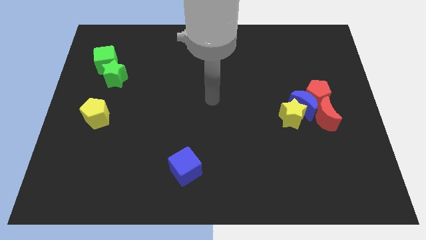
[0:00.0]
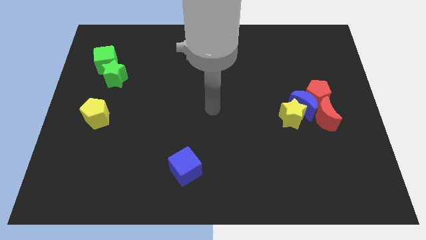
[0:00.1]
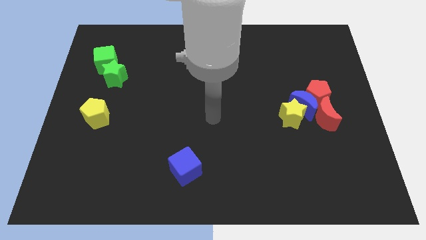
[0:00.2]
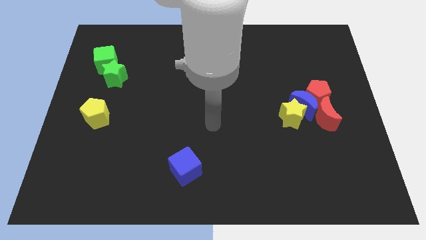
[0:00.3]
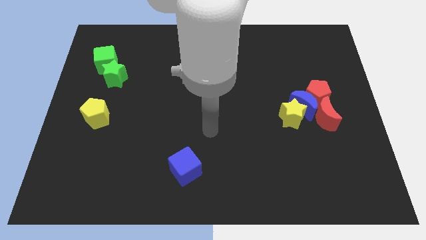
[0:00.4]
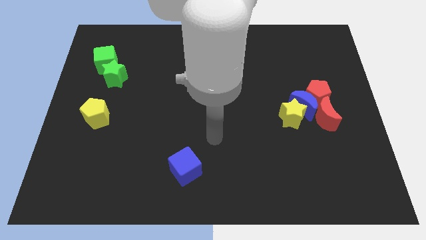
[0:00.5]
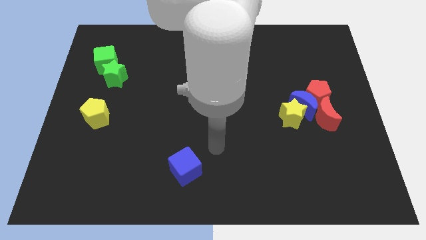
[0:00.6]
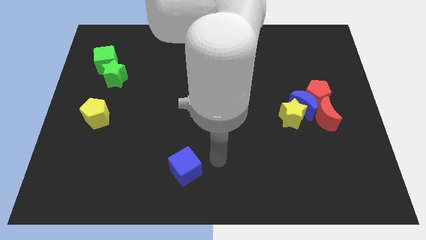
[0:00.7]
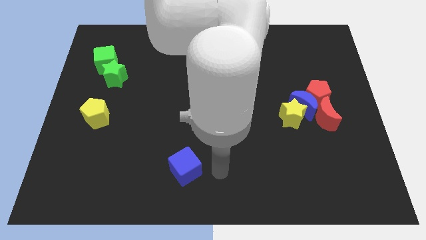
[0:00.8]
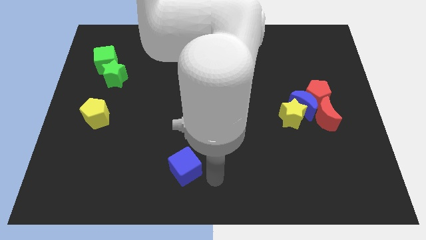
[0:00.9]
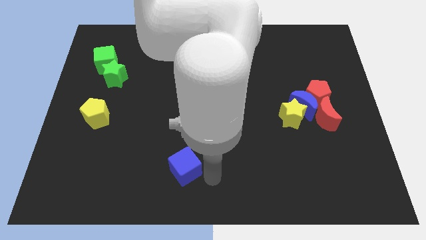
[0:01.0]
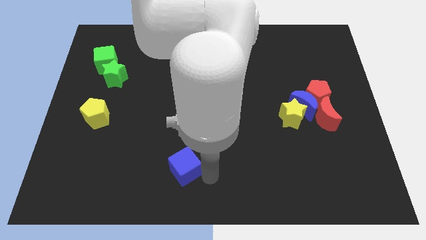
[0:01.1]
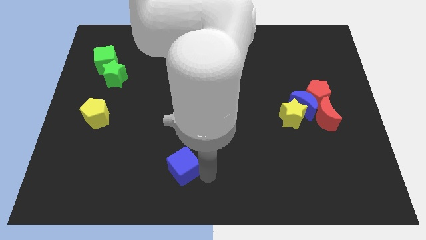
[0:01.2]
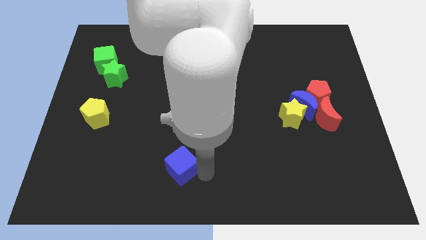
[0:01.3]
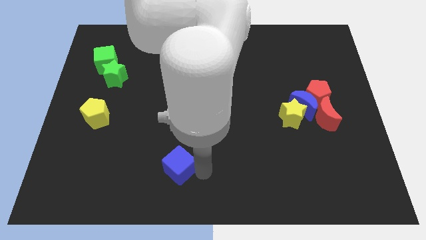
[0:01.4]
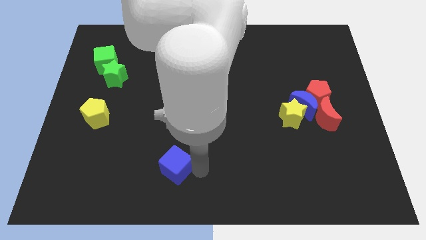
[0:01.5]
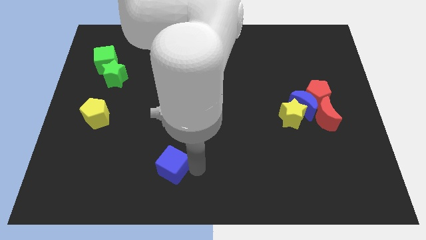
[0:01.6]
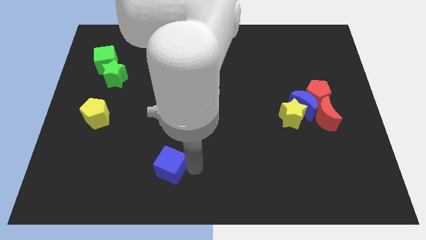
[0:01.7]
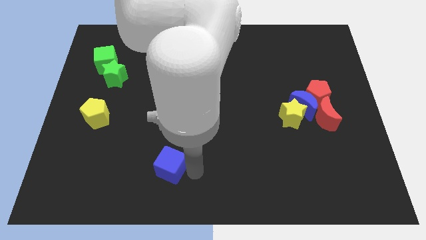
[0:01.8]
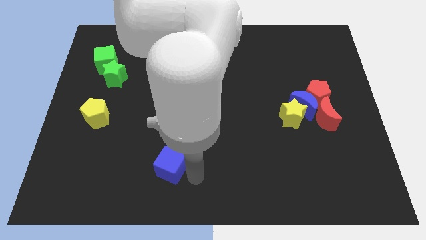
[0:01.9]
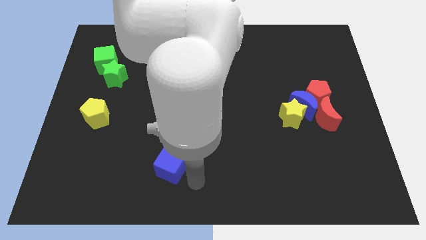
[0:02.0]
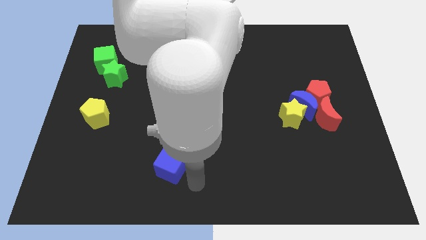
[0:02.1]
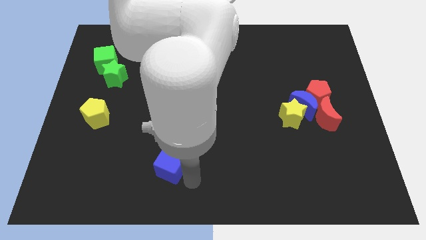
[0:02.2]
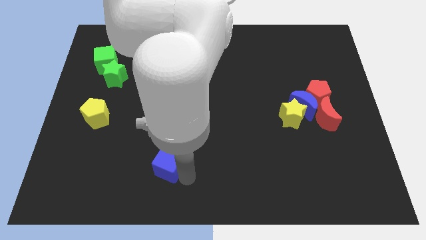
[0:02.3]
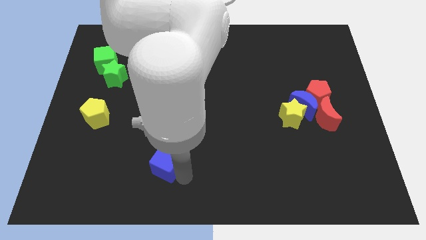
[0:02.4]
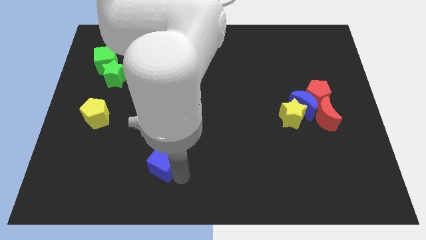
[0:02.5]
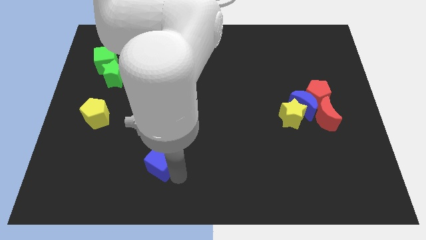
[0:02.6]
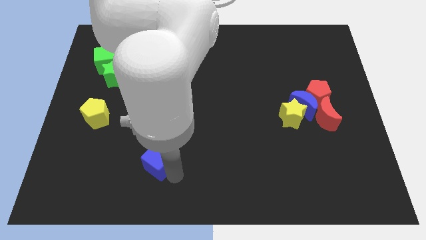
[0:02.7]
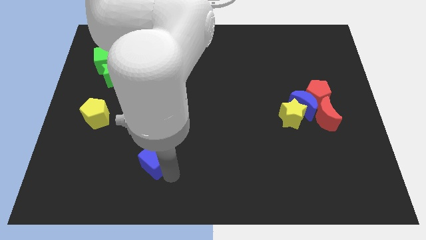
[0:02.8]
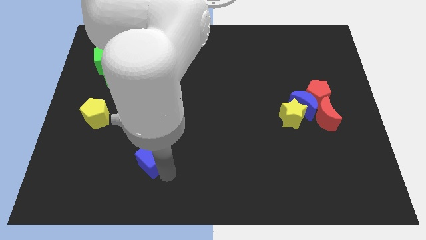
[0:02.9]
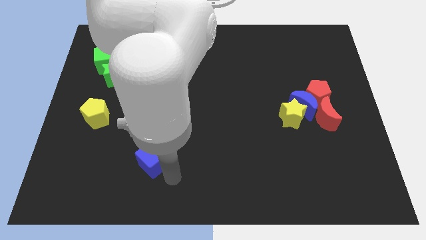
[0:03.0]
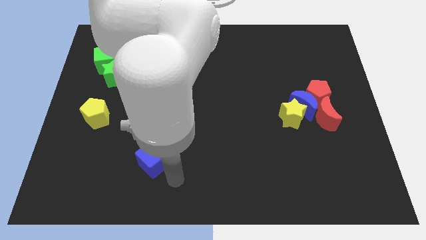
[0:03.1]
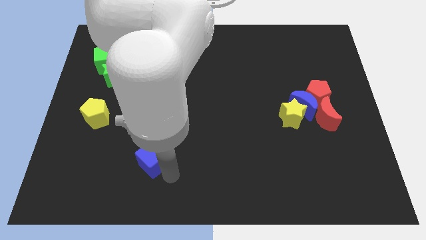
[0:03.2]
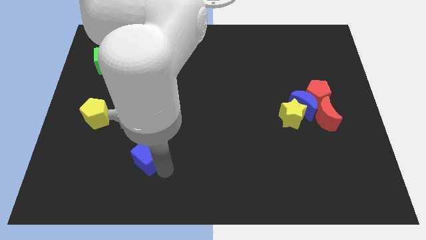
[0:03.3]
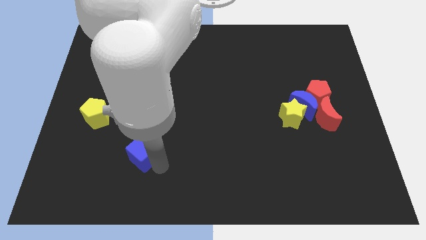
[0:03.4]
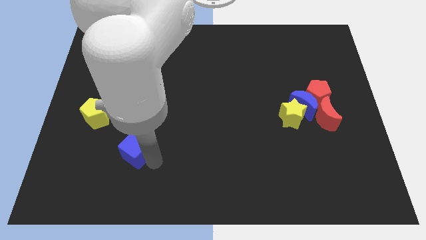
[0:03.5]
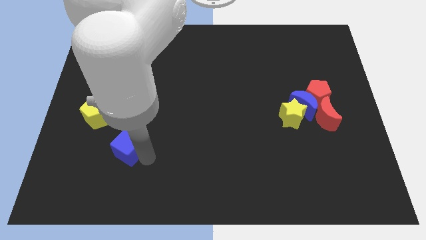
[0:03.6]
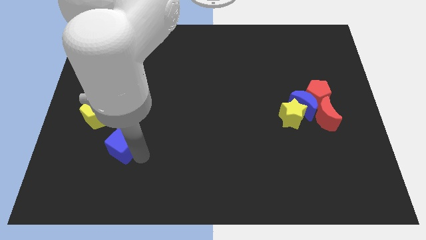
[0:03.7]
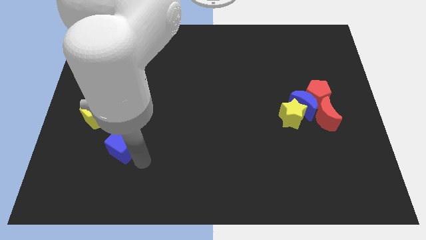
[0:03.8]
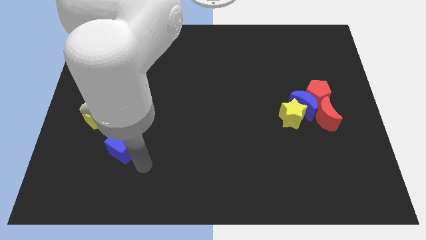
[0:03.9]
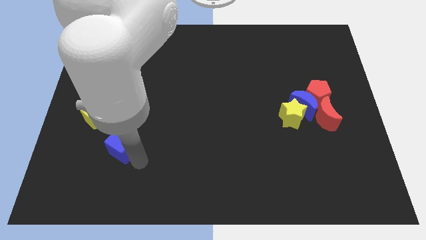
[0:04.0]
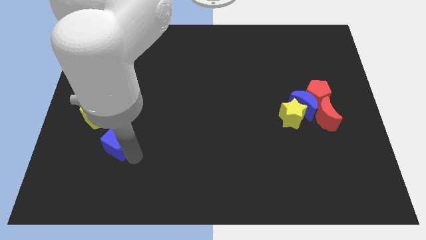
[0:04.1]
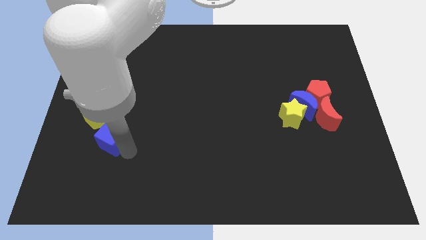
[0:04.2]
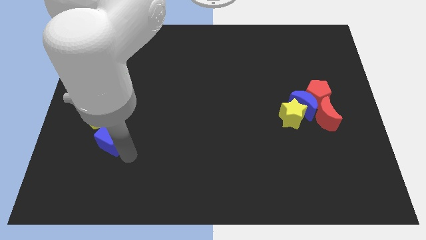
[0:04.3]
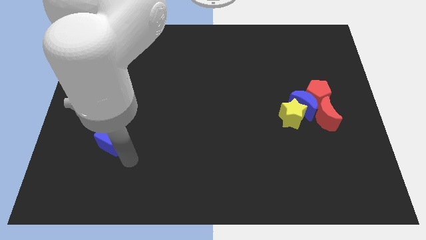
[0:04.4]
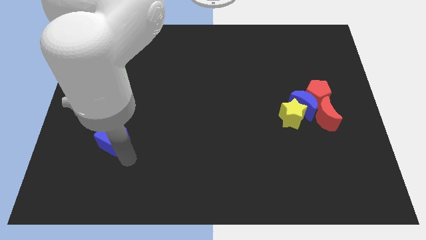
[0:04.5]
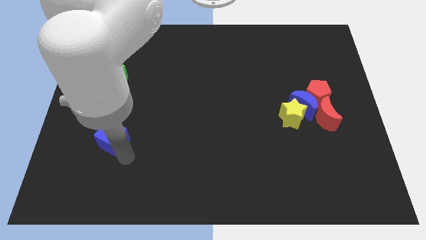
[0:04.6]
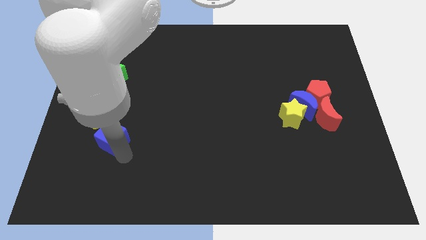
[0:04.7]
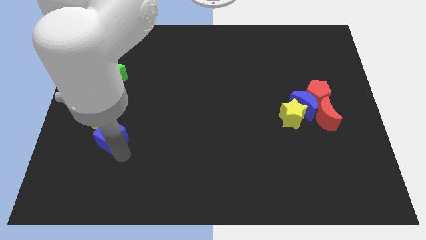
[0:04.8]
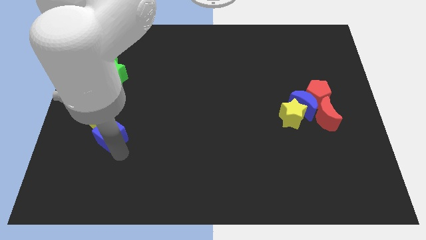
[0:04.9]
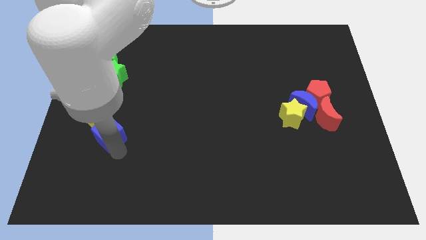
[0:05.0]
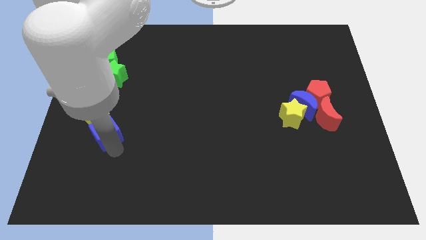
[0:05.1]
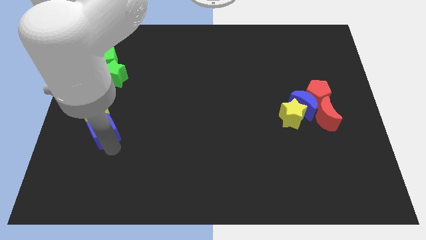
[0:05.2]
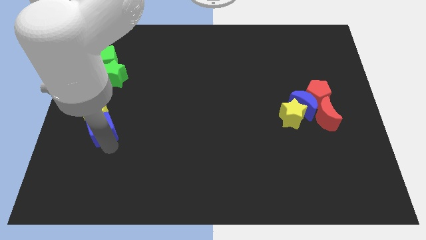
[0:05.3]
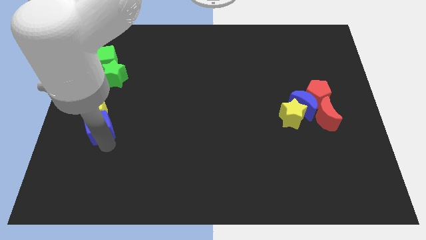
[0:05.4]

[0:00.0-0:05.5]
push the blue cube to the bottom of the green star

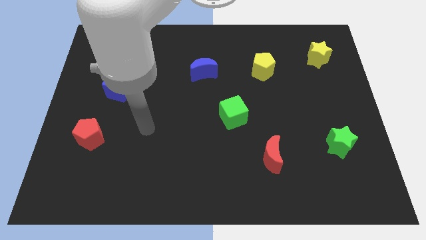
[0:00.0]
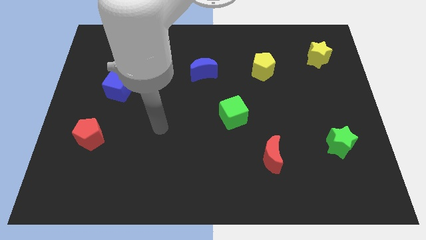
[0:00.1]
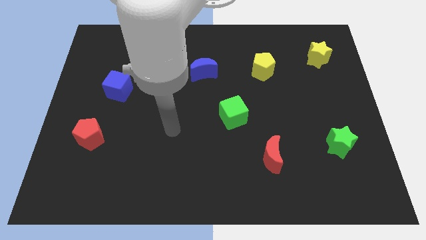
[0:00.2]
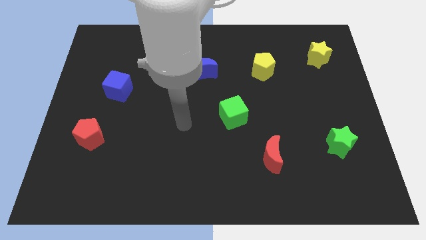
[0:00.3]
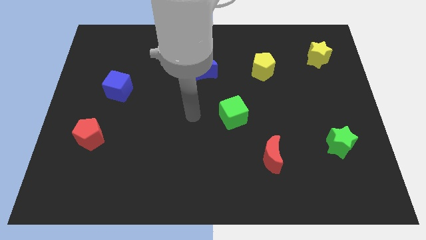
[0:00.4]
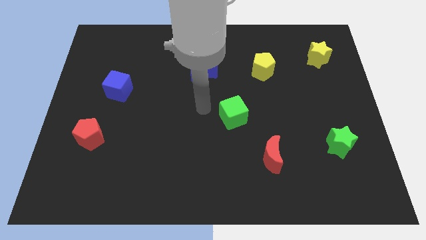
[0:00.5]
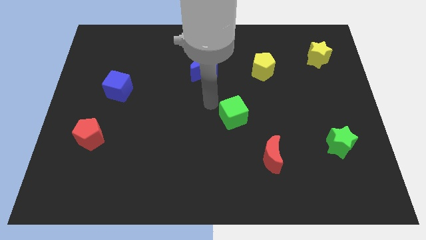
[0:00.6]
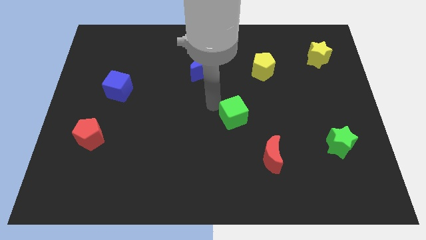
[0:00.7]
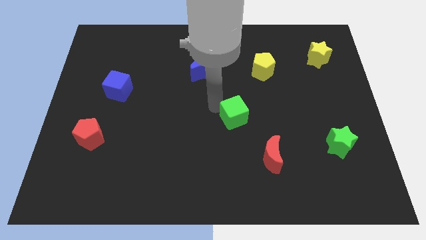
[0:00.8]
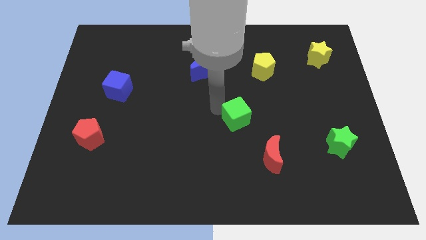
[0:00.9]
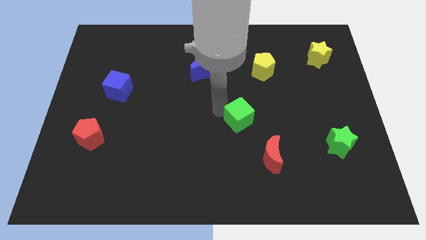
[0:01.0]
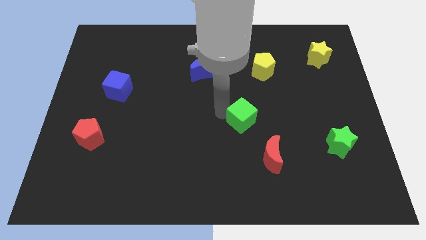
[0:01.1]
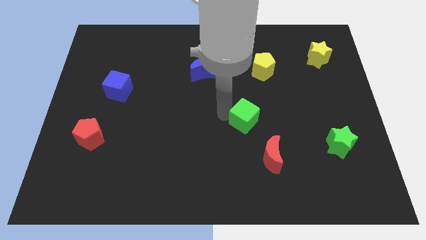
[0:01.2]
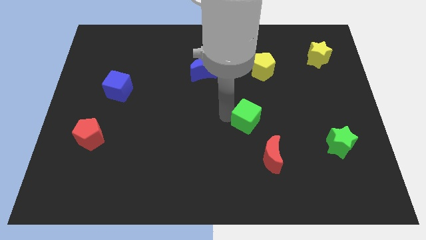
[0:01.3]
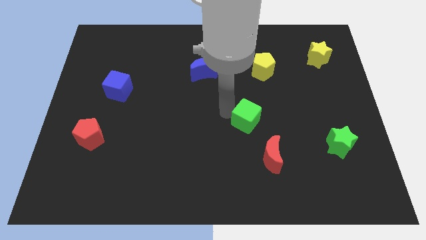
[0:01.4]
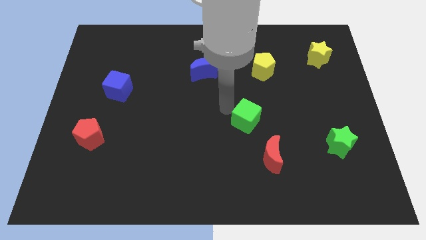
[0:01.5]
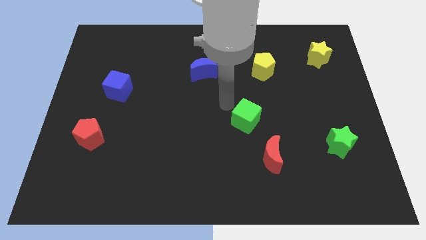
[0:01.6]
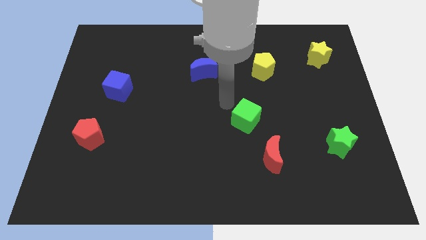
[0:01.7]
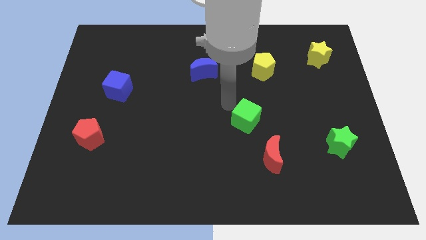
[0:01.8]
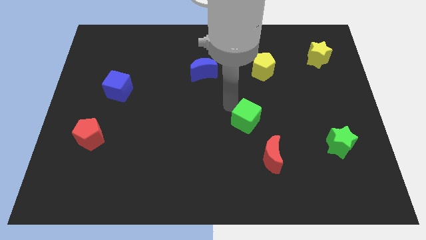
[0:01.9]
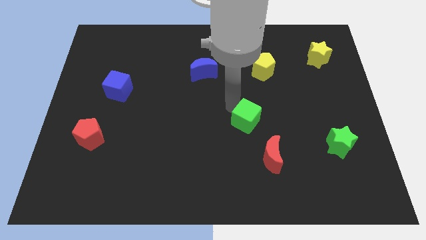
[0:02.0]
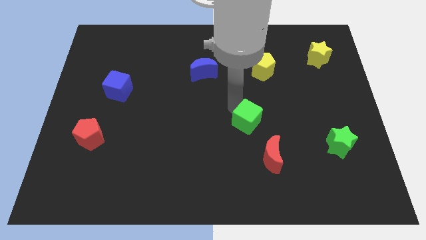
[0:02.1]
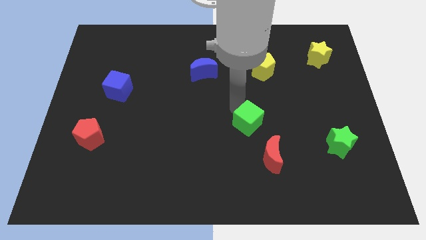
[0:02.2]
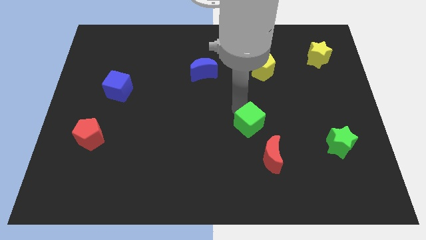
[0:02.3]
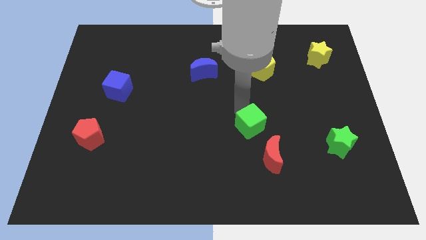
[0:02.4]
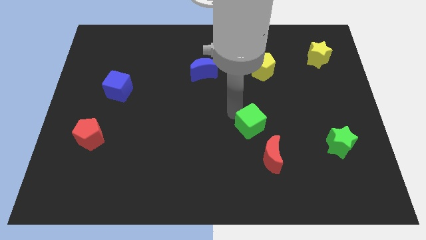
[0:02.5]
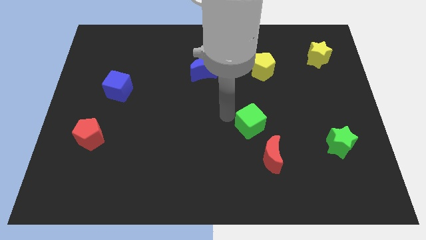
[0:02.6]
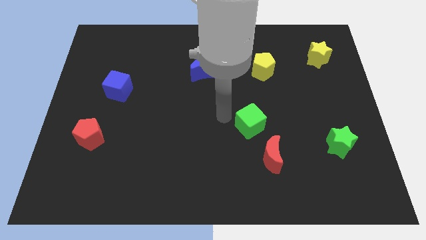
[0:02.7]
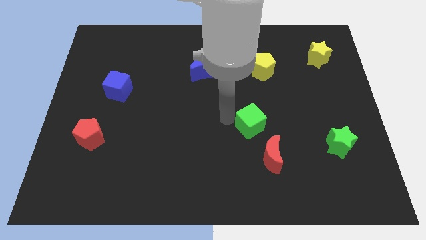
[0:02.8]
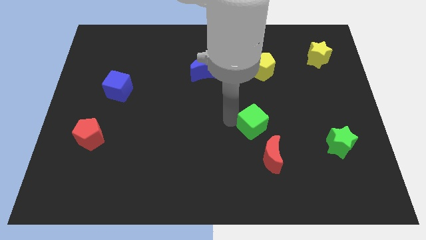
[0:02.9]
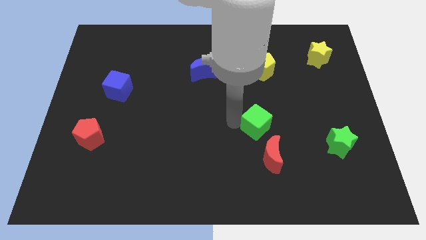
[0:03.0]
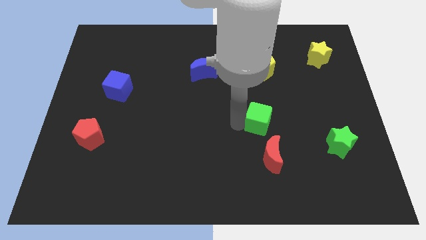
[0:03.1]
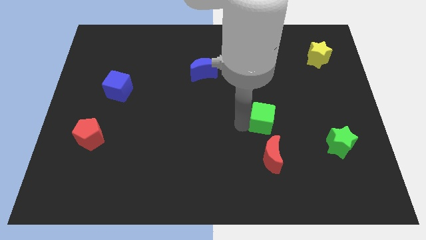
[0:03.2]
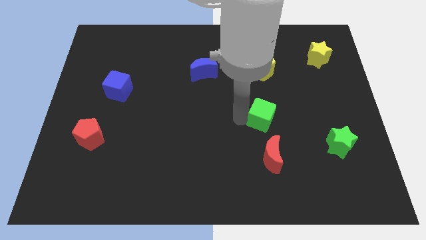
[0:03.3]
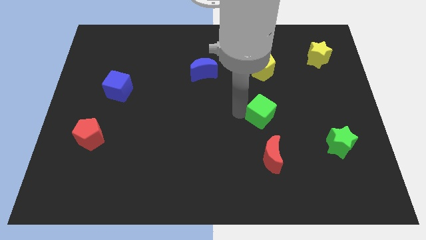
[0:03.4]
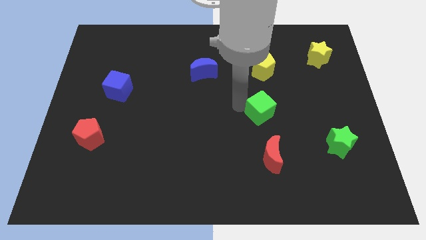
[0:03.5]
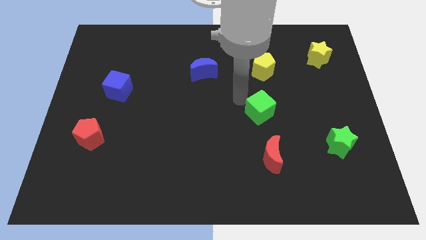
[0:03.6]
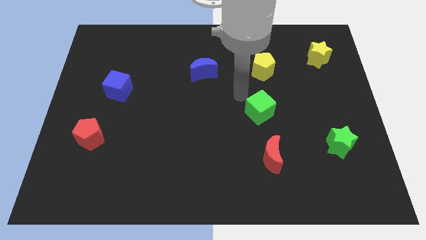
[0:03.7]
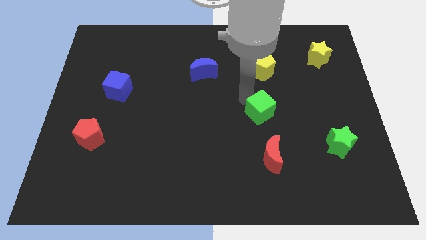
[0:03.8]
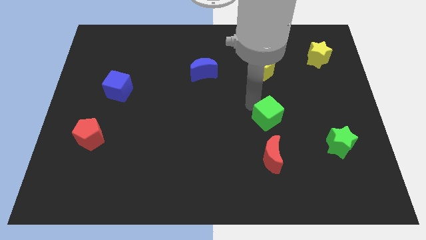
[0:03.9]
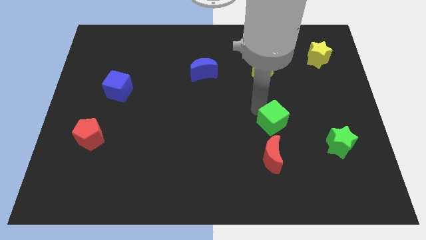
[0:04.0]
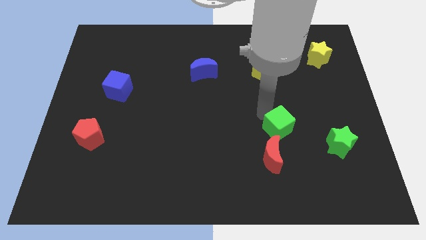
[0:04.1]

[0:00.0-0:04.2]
put the green cube to the top right of the red moon
